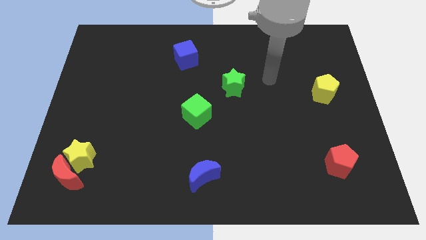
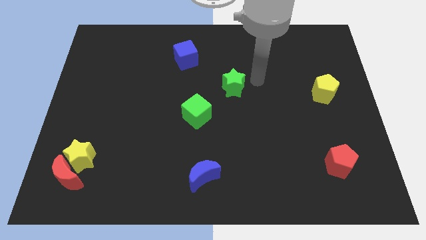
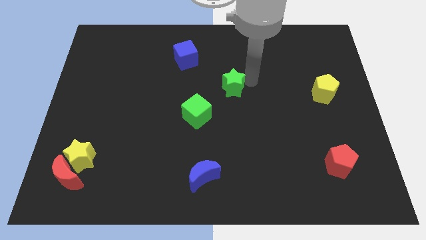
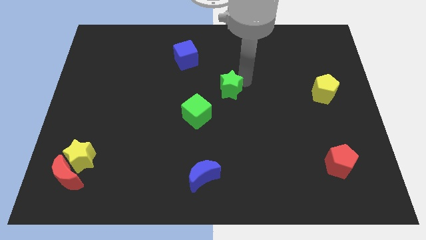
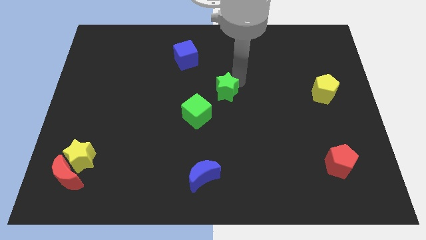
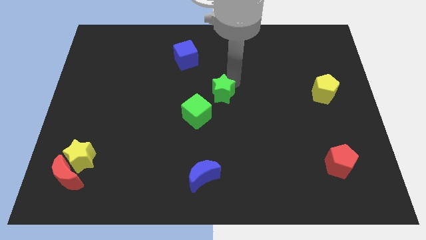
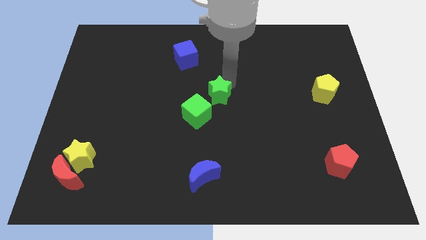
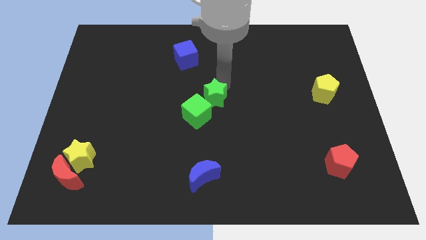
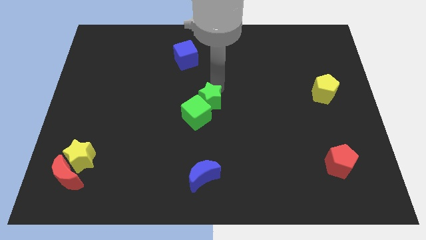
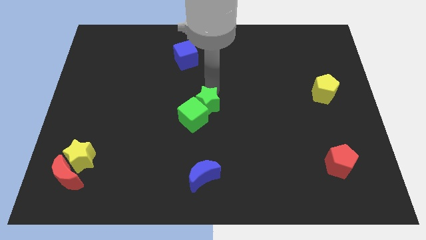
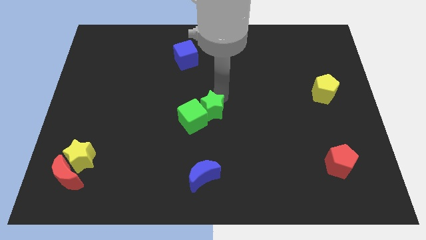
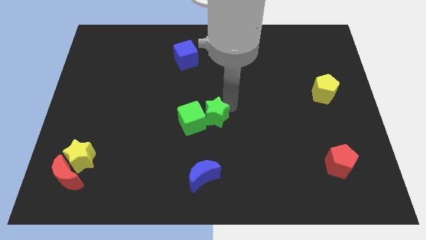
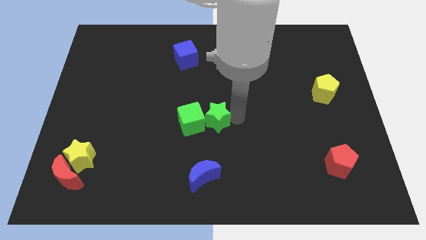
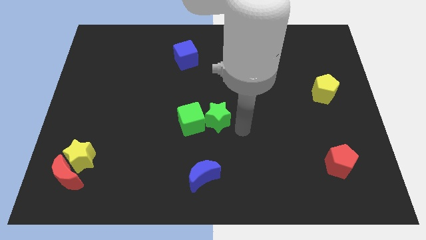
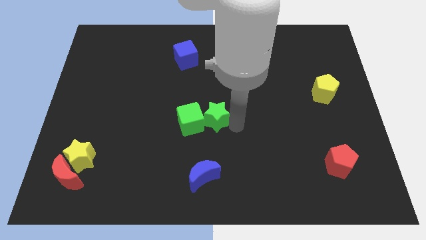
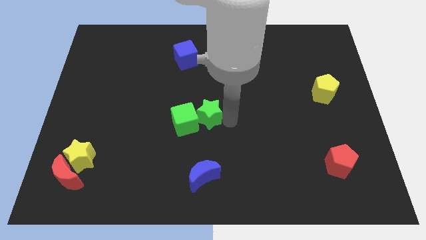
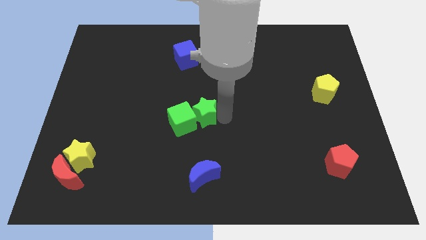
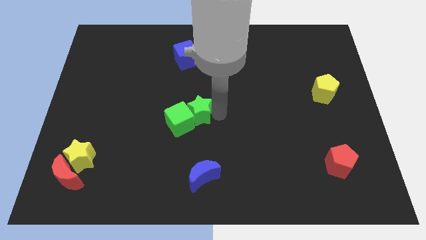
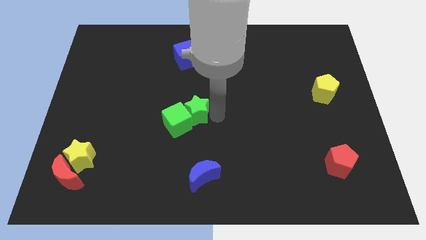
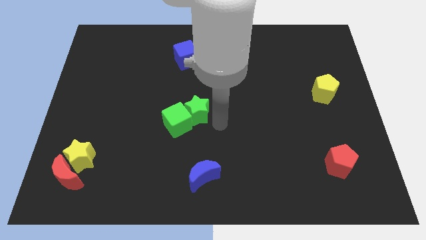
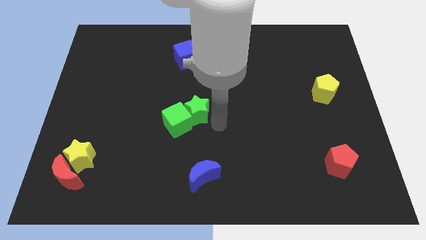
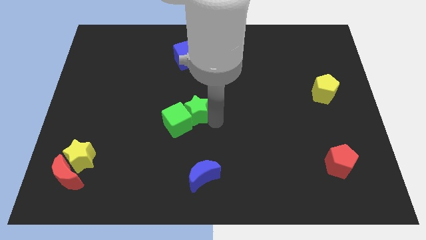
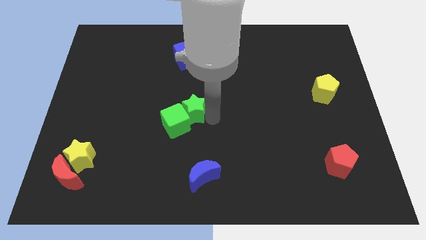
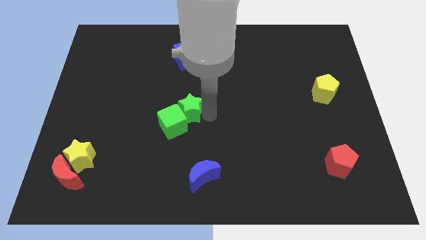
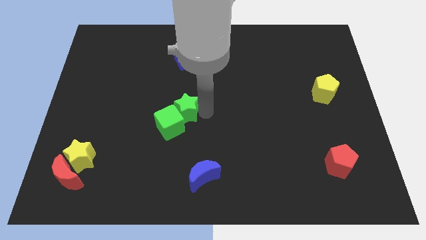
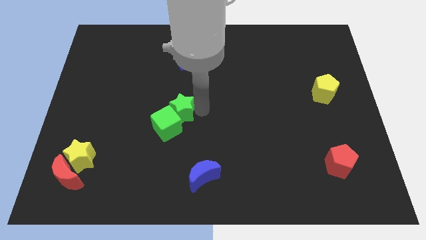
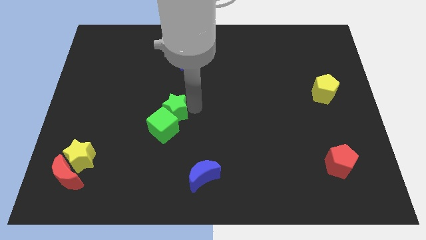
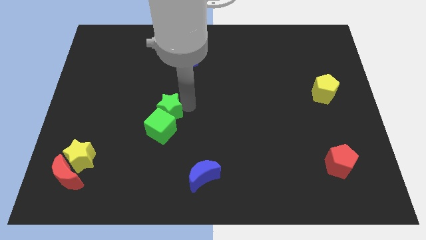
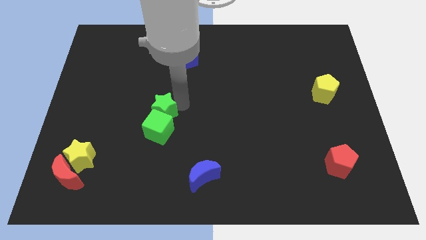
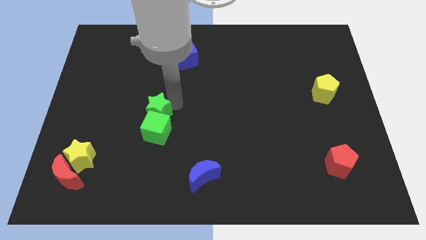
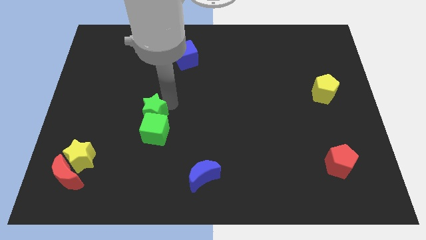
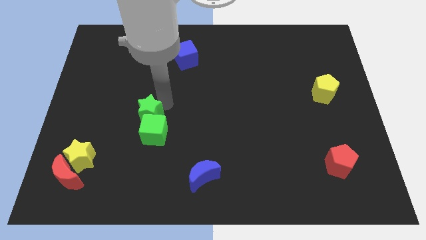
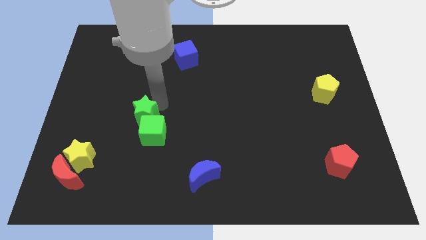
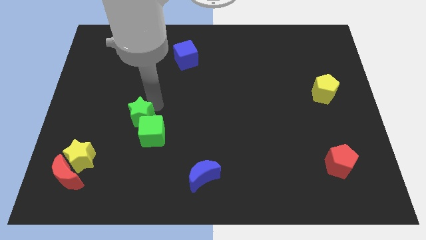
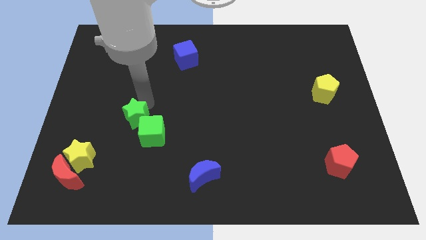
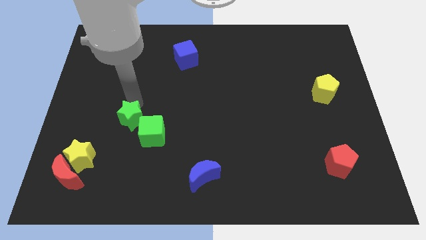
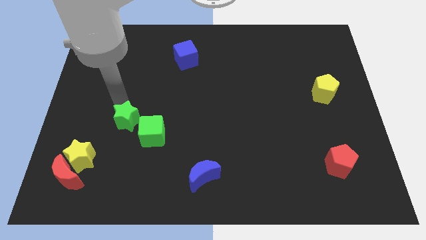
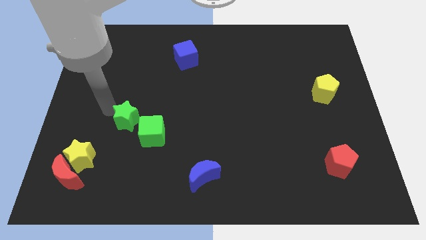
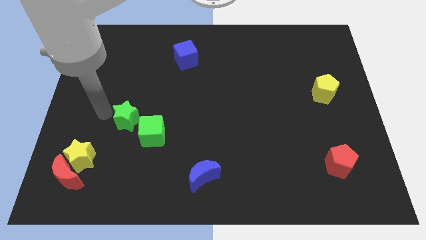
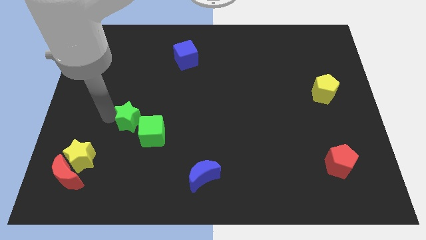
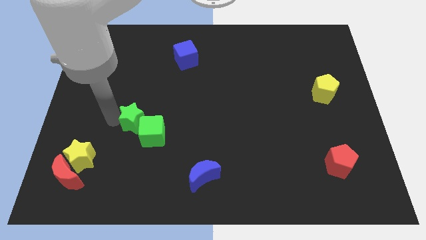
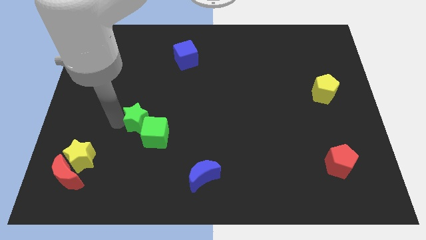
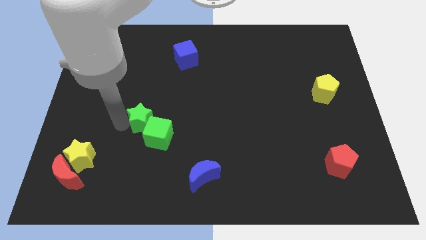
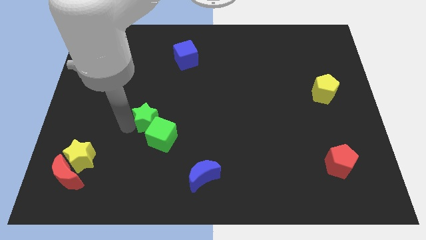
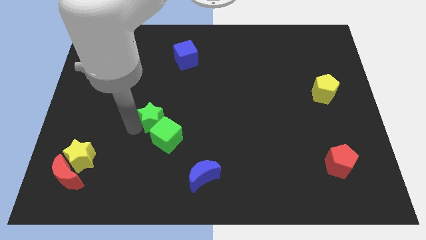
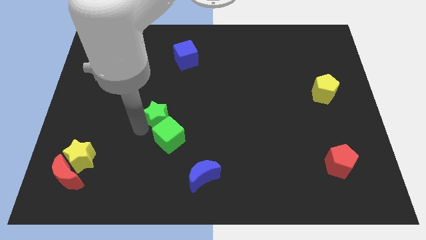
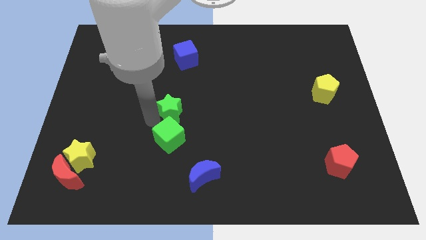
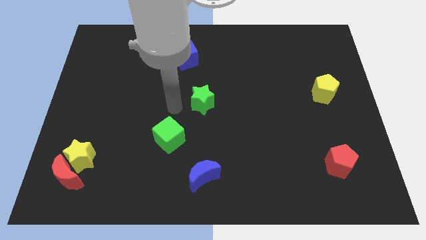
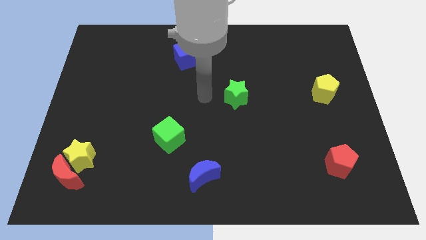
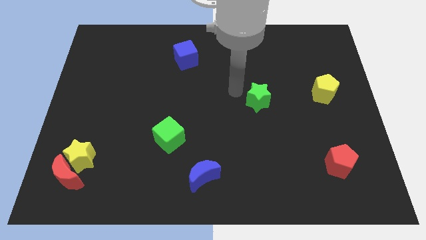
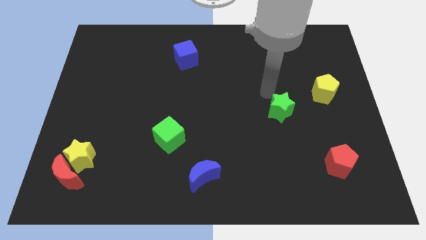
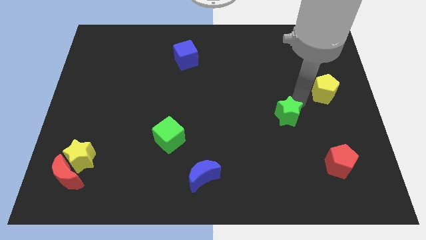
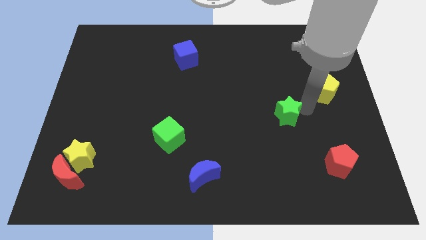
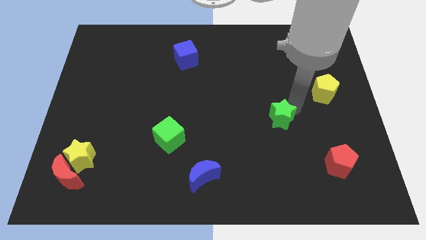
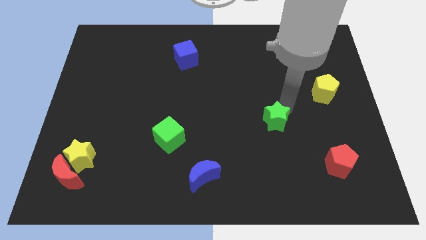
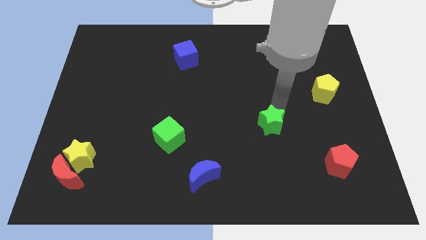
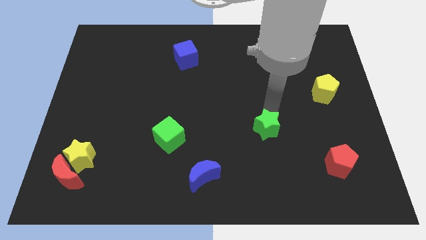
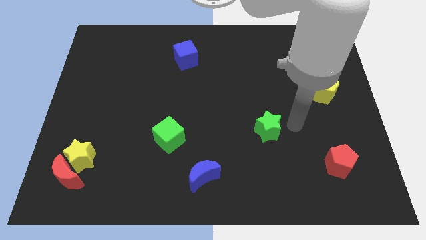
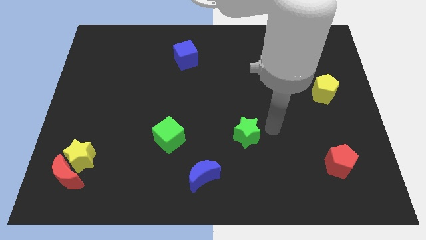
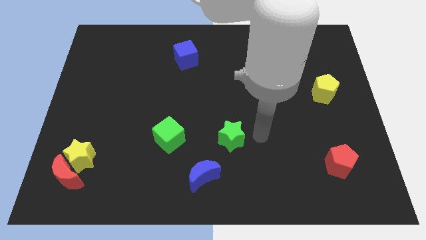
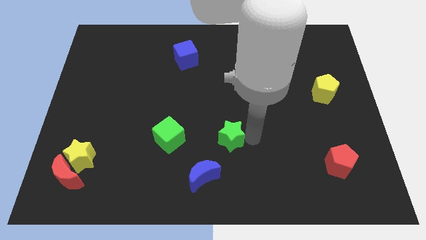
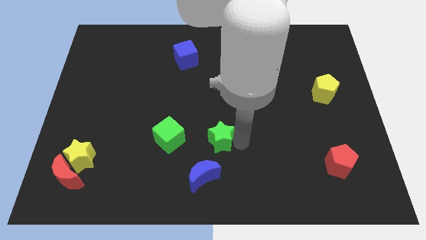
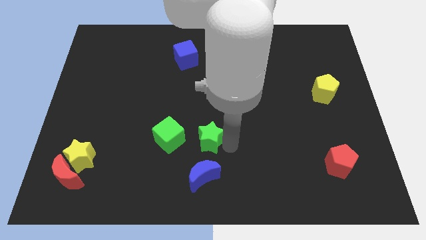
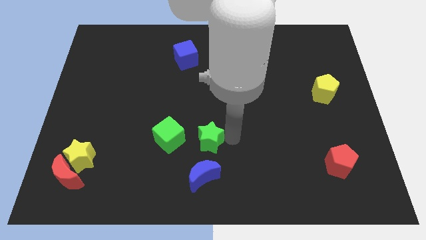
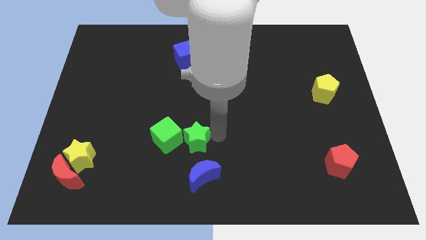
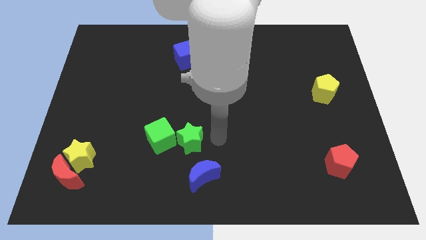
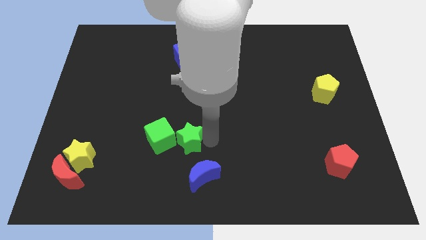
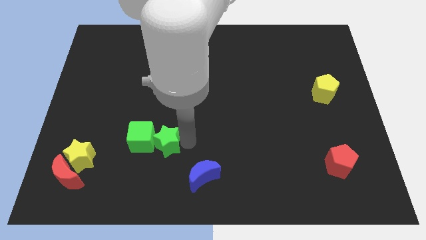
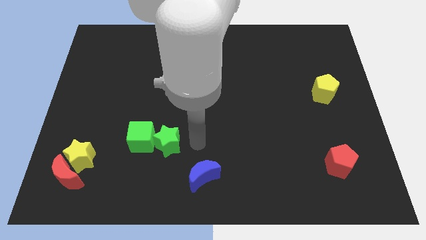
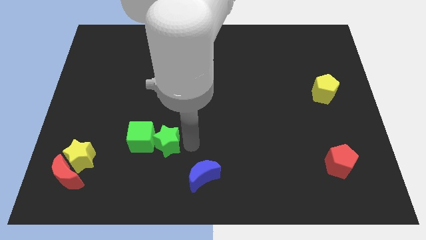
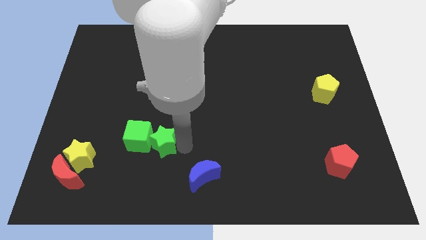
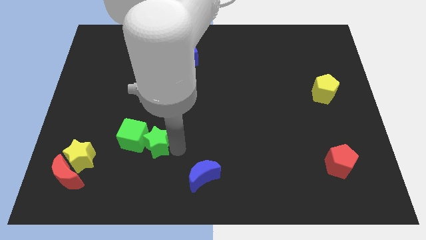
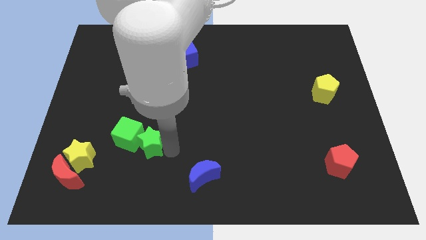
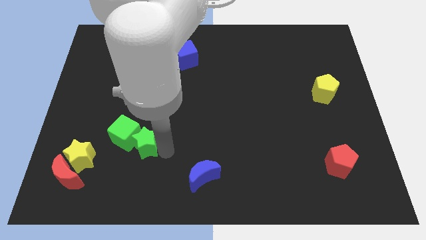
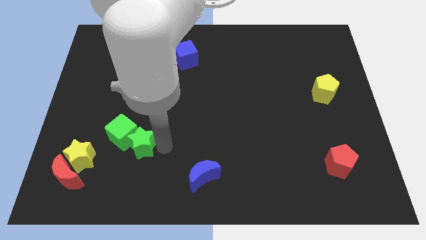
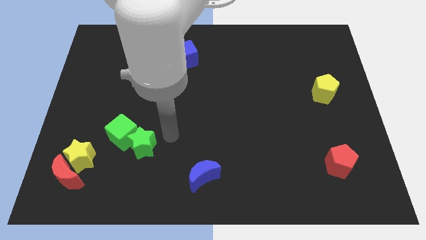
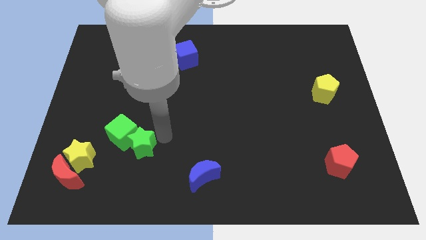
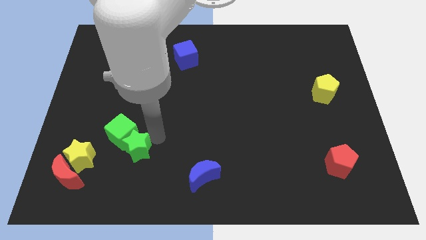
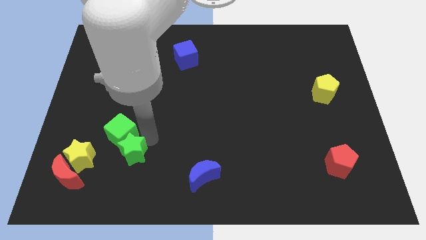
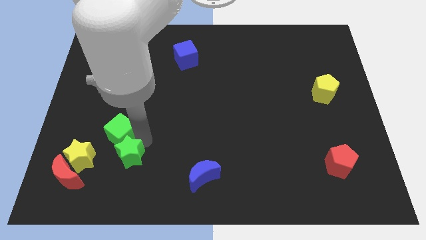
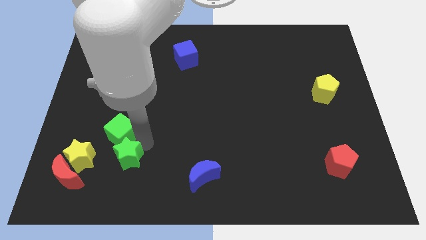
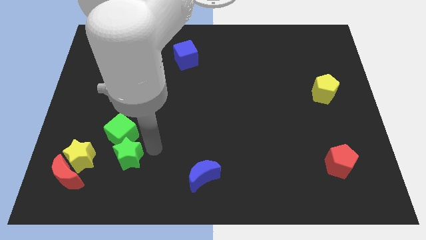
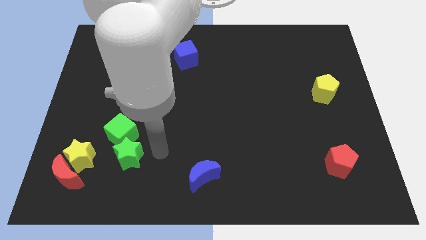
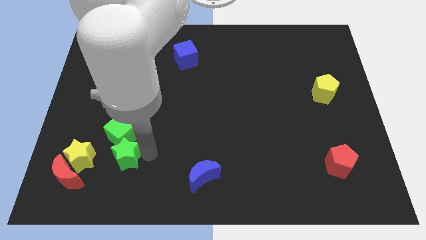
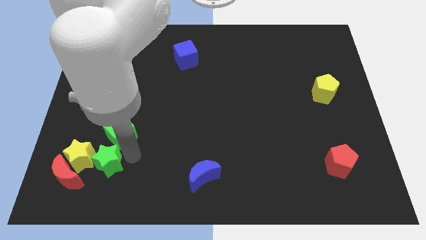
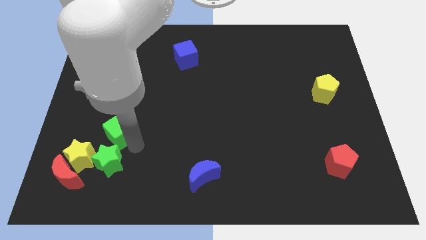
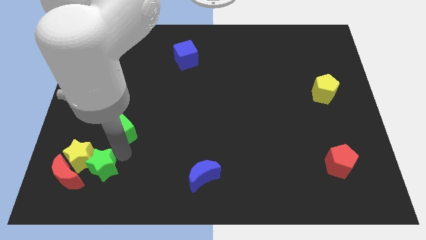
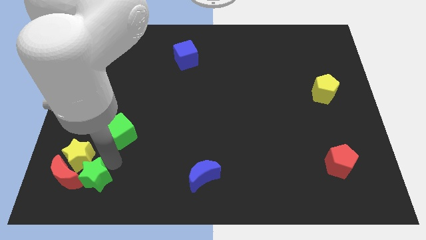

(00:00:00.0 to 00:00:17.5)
move the green star to the red moon
